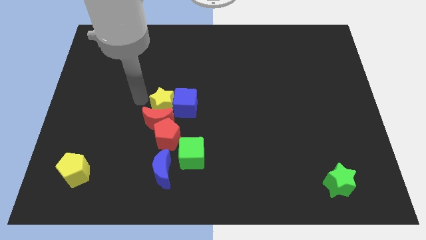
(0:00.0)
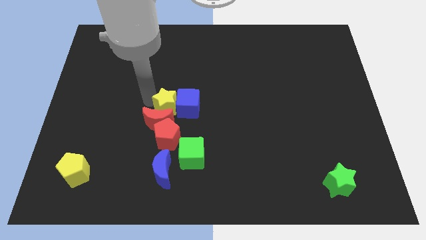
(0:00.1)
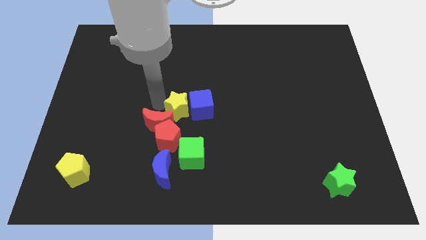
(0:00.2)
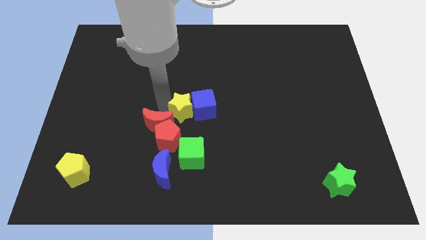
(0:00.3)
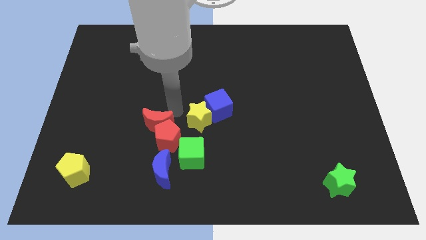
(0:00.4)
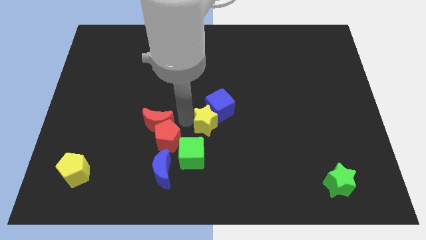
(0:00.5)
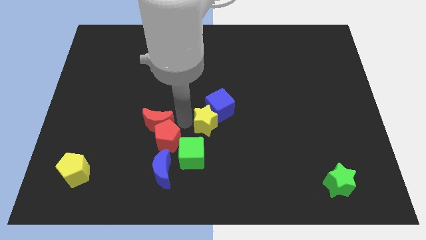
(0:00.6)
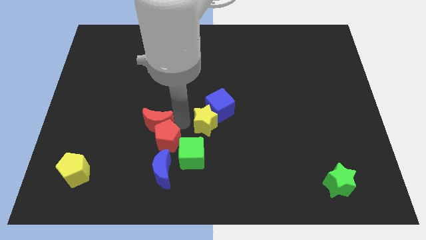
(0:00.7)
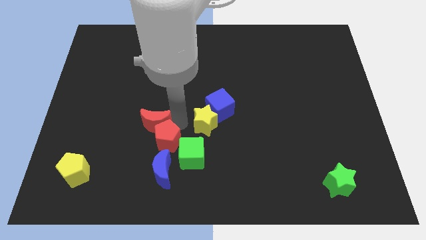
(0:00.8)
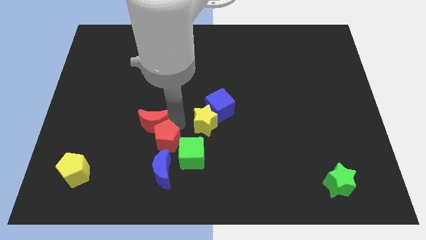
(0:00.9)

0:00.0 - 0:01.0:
separate the red moon from the group

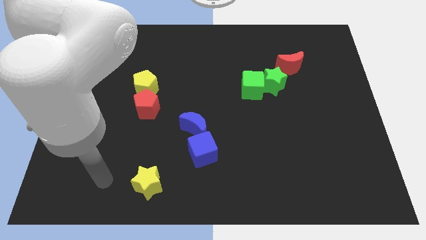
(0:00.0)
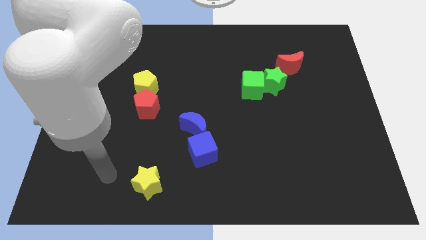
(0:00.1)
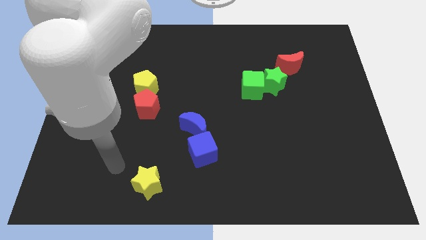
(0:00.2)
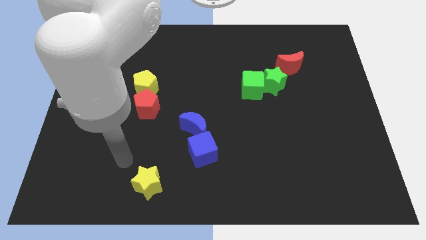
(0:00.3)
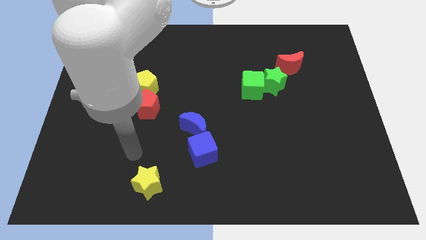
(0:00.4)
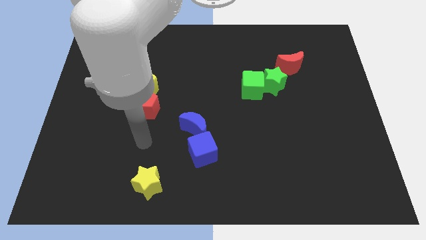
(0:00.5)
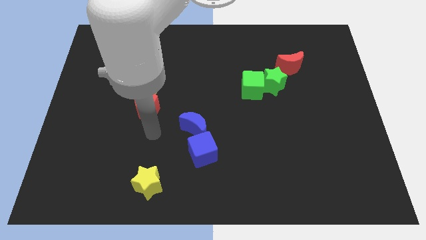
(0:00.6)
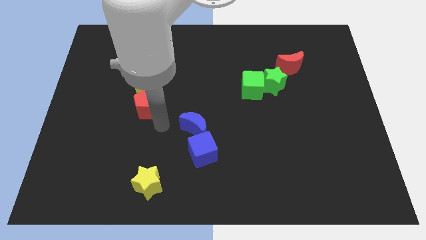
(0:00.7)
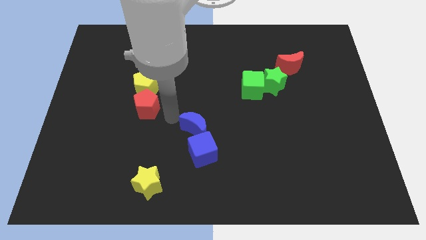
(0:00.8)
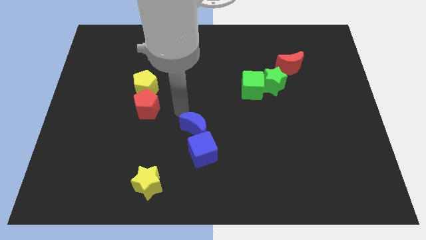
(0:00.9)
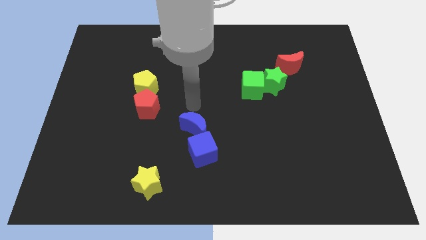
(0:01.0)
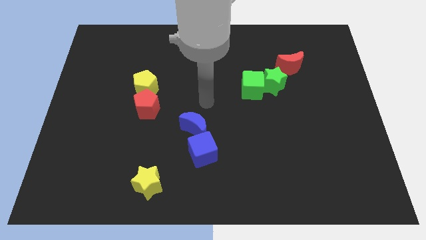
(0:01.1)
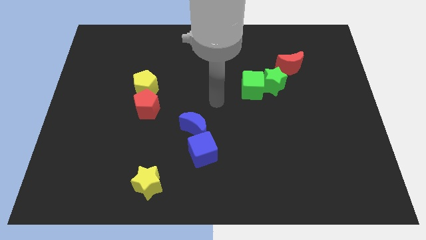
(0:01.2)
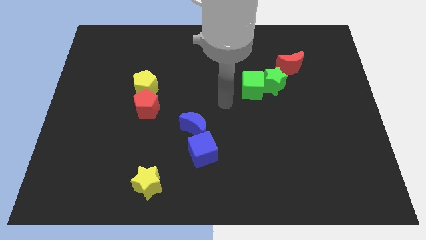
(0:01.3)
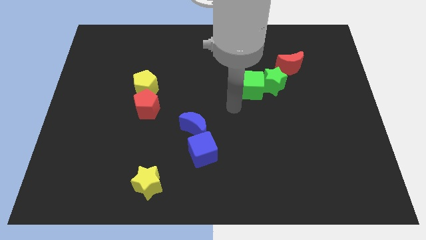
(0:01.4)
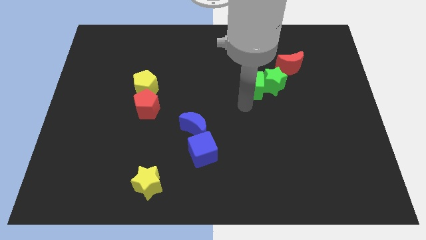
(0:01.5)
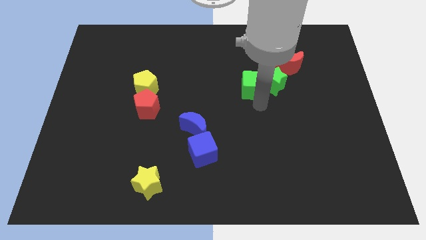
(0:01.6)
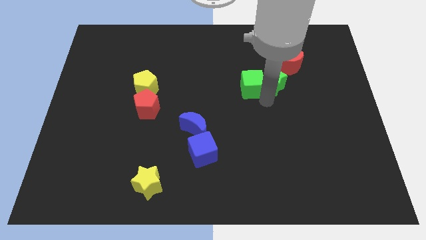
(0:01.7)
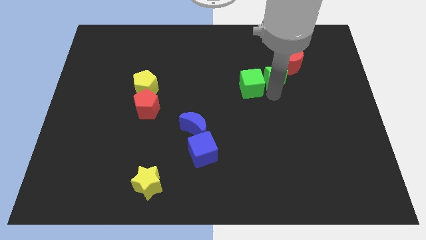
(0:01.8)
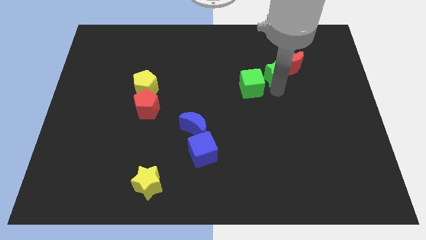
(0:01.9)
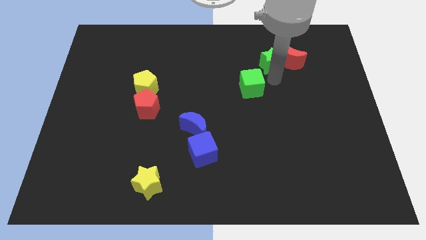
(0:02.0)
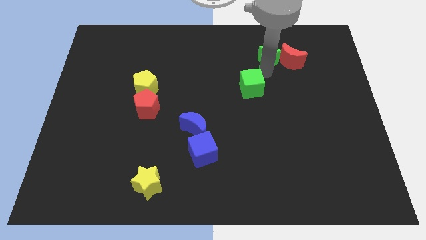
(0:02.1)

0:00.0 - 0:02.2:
separate the green cube from the green star

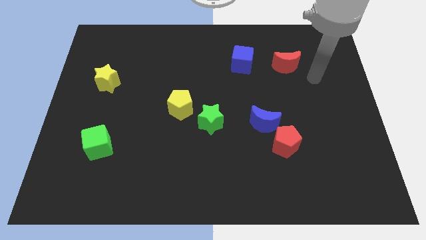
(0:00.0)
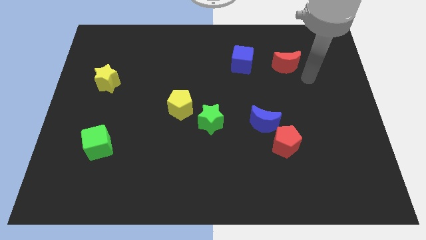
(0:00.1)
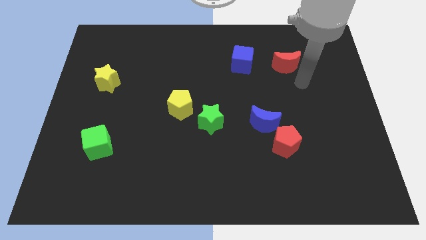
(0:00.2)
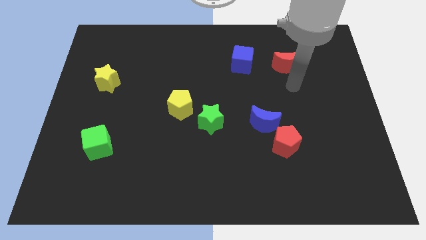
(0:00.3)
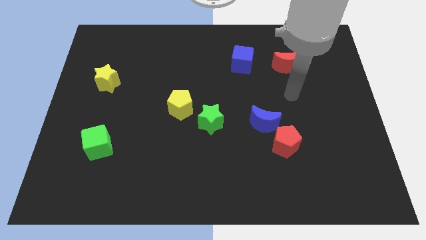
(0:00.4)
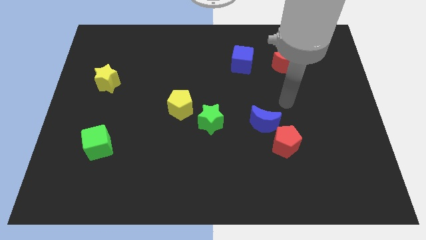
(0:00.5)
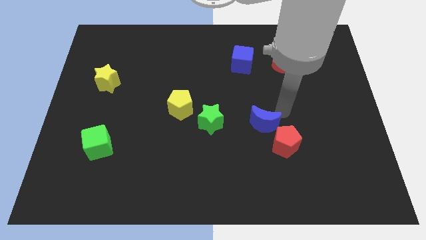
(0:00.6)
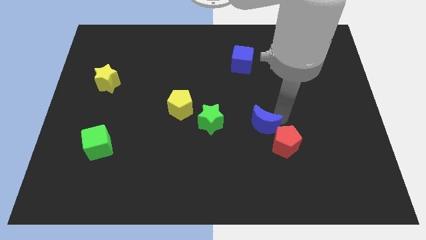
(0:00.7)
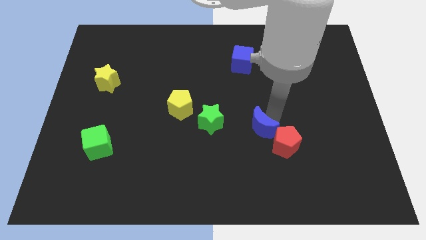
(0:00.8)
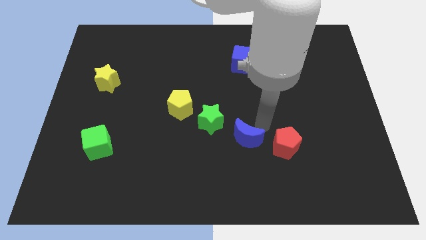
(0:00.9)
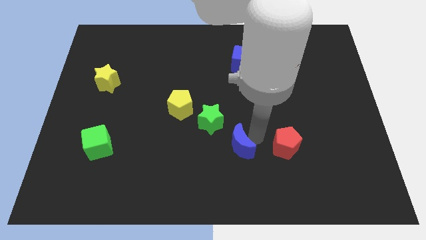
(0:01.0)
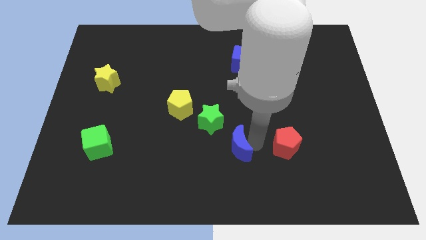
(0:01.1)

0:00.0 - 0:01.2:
separate the red pentagon from the blue moon

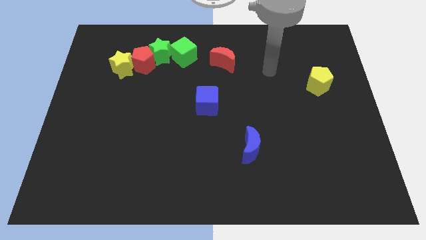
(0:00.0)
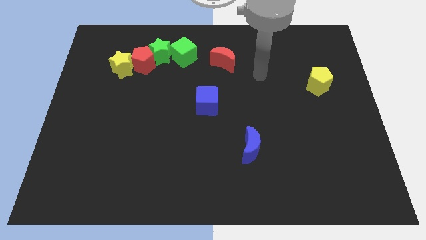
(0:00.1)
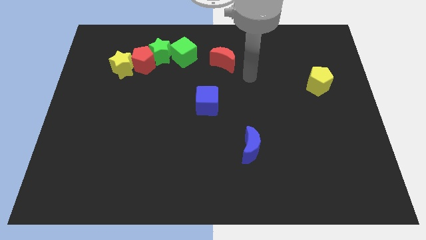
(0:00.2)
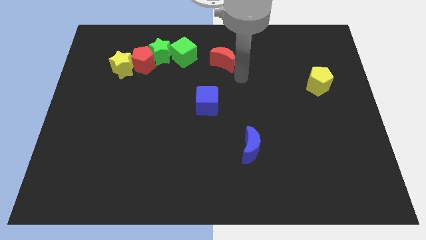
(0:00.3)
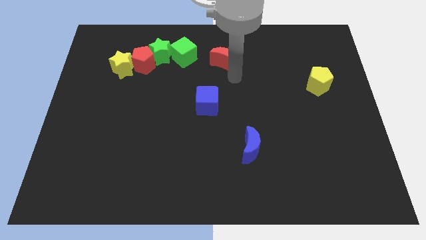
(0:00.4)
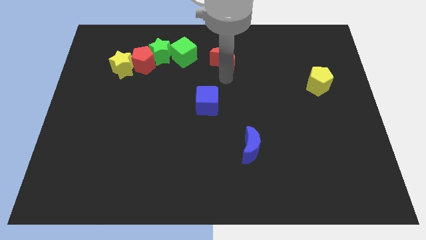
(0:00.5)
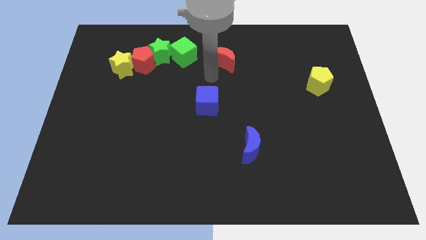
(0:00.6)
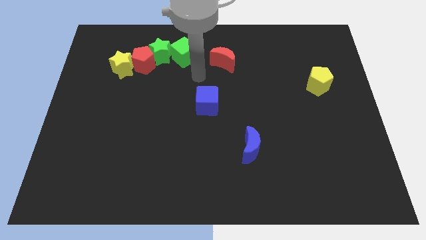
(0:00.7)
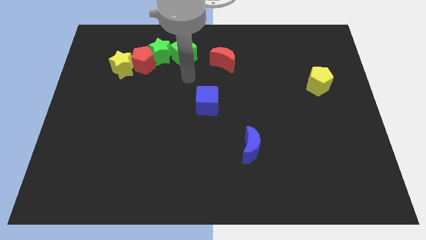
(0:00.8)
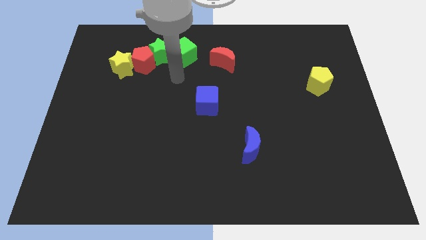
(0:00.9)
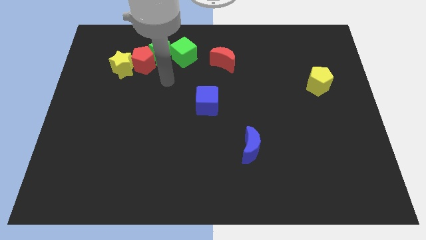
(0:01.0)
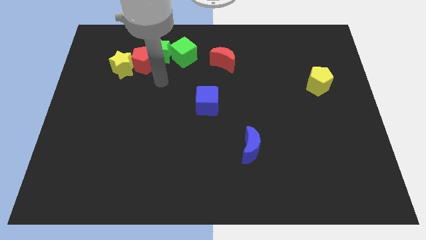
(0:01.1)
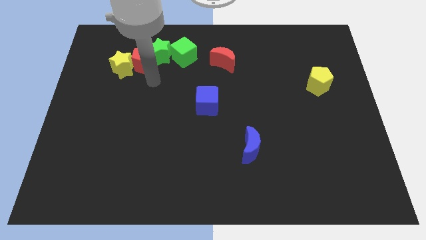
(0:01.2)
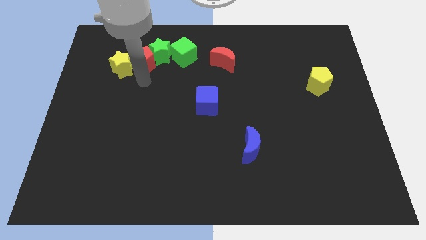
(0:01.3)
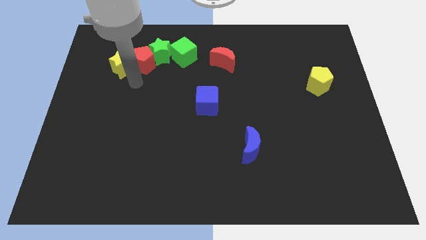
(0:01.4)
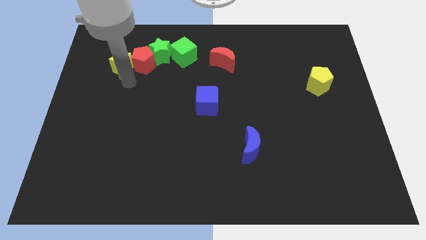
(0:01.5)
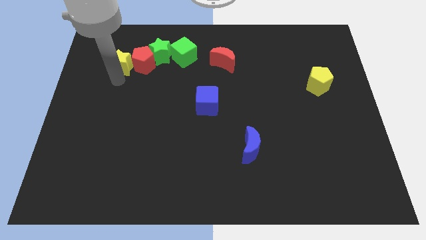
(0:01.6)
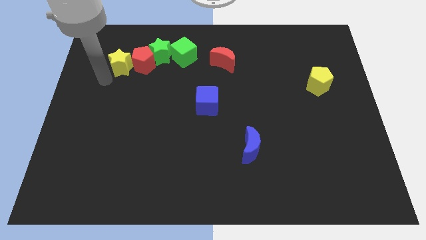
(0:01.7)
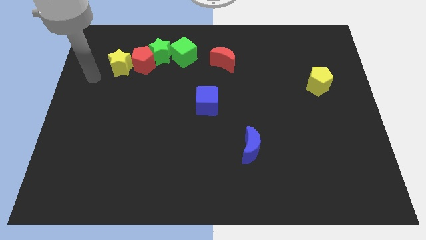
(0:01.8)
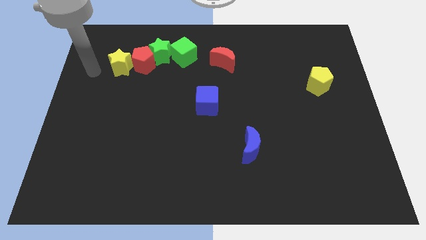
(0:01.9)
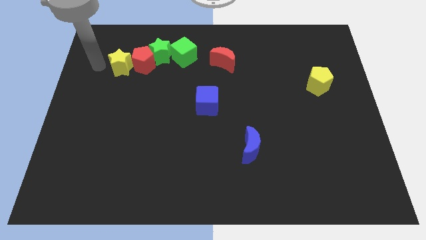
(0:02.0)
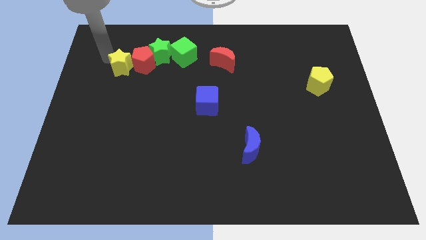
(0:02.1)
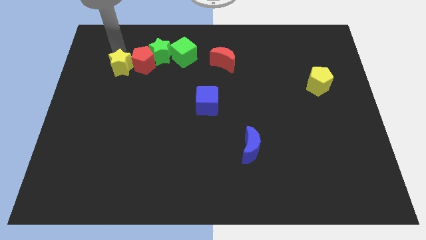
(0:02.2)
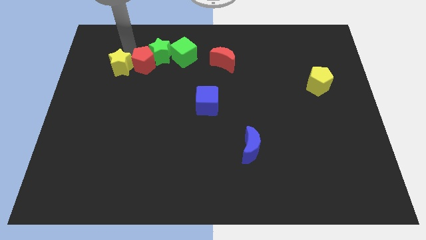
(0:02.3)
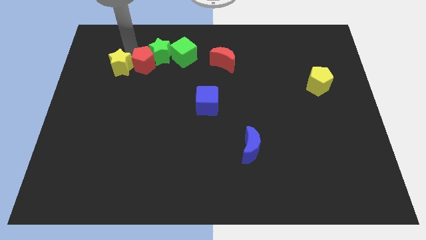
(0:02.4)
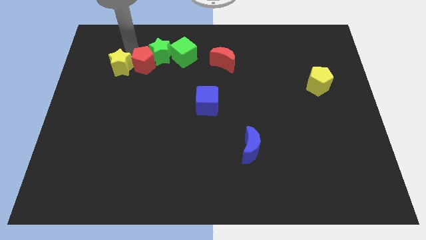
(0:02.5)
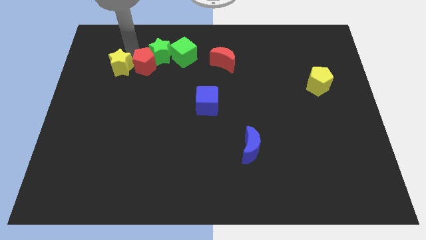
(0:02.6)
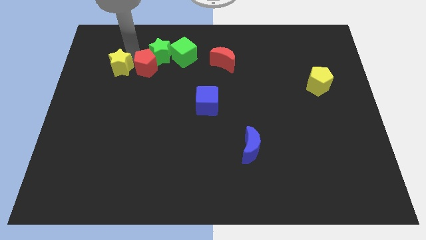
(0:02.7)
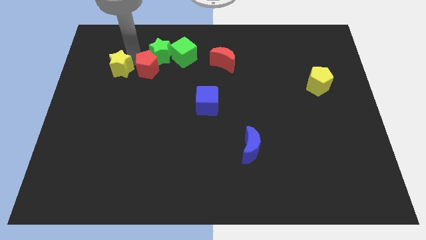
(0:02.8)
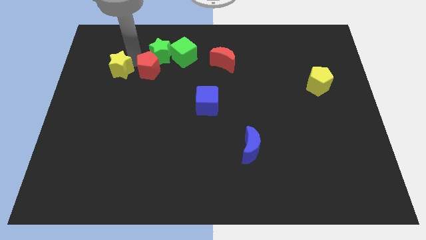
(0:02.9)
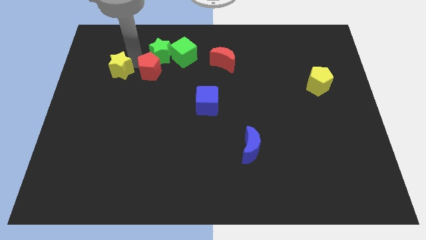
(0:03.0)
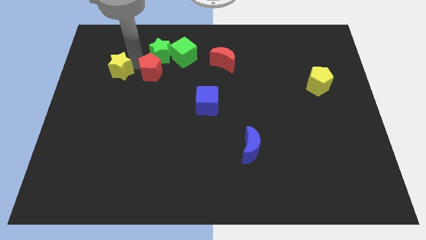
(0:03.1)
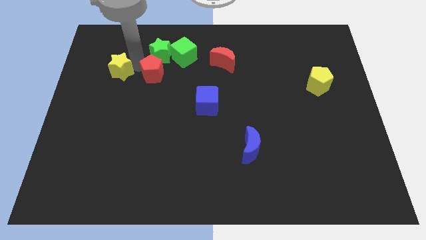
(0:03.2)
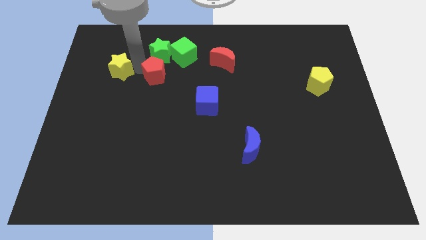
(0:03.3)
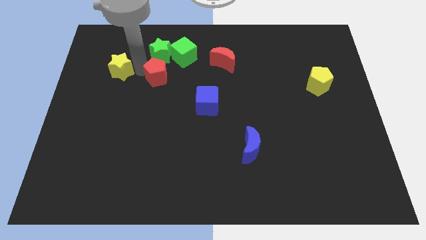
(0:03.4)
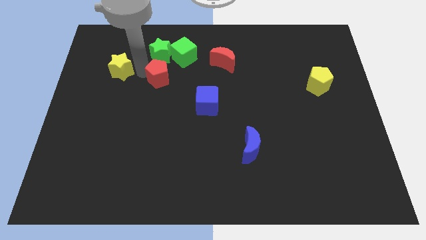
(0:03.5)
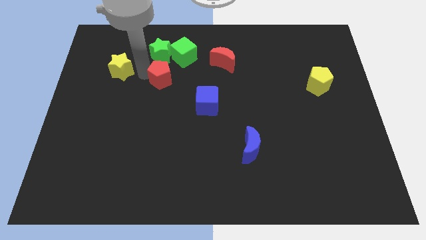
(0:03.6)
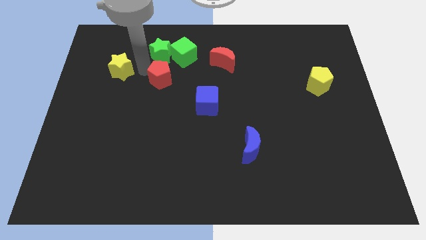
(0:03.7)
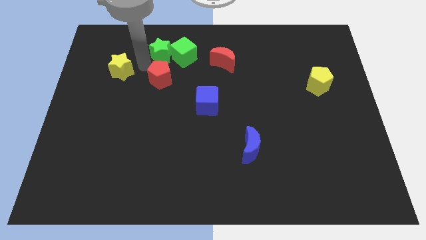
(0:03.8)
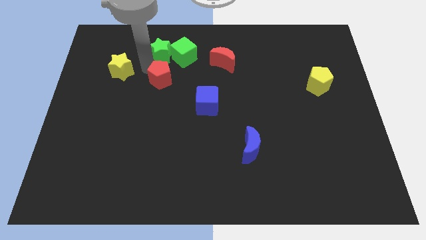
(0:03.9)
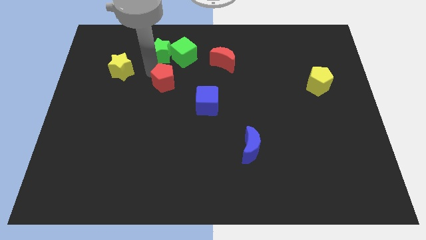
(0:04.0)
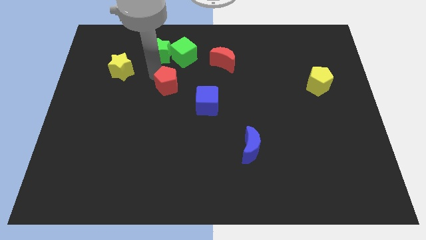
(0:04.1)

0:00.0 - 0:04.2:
separate the red pentagon from the green star and yellow star

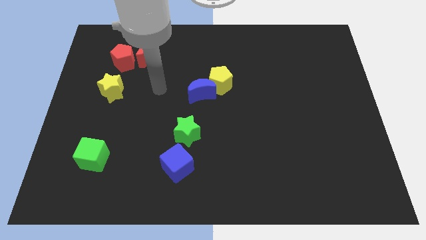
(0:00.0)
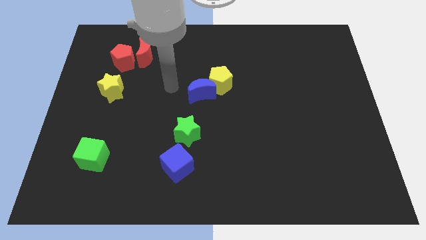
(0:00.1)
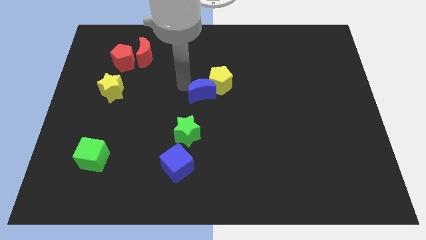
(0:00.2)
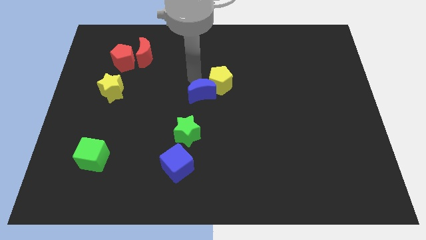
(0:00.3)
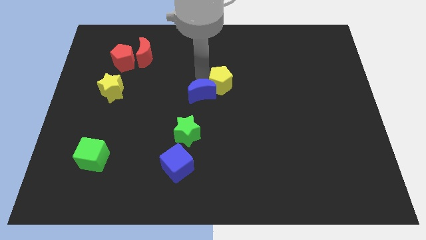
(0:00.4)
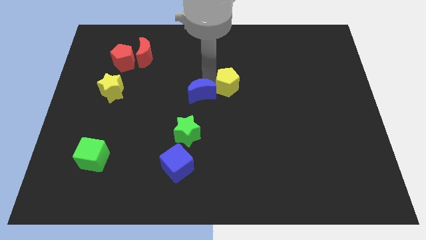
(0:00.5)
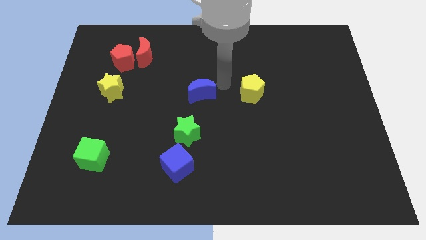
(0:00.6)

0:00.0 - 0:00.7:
separate the blue moon from the yellow pentagon
